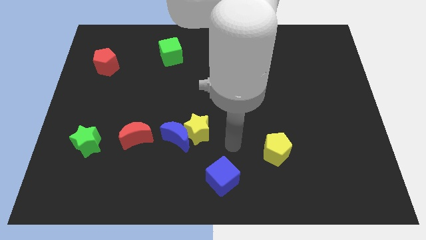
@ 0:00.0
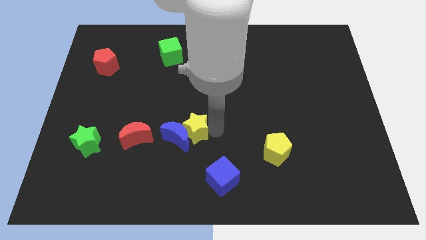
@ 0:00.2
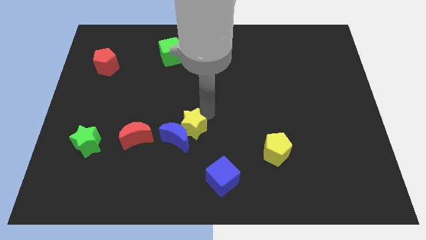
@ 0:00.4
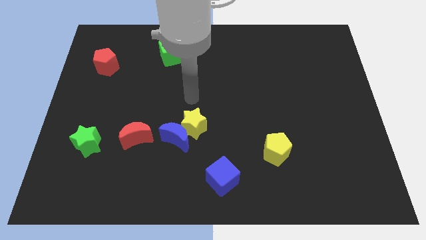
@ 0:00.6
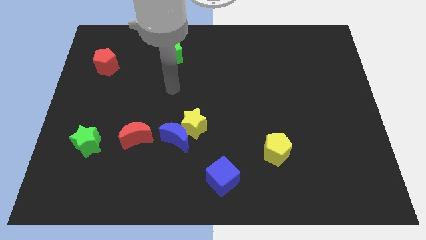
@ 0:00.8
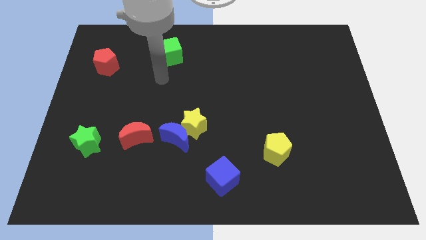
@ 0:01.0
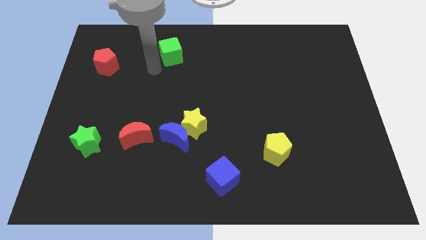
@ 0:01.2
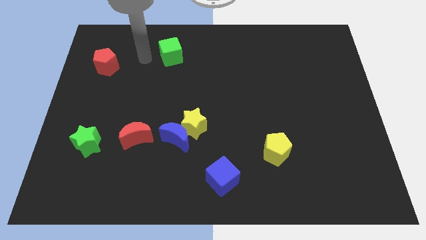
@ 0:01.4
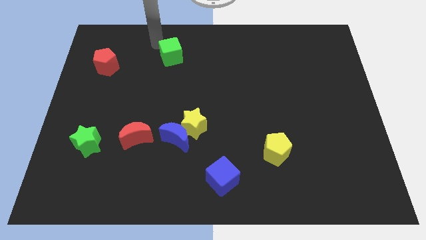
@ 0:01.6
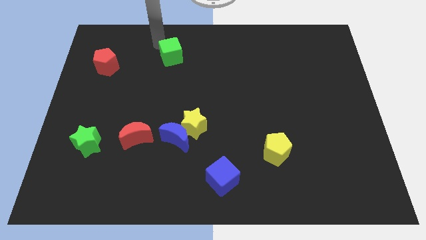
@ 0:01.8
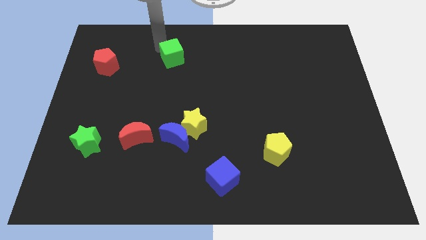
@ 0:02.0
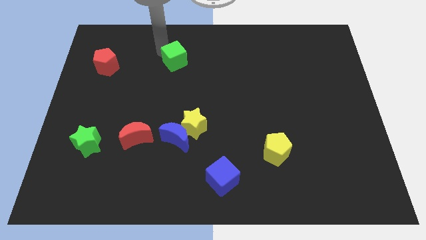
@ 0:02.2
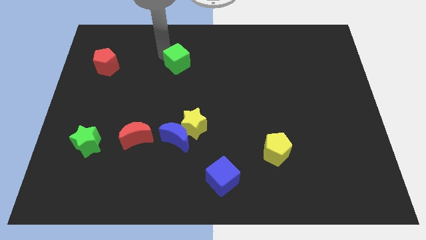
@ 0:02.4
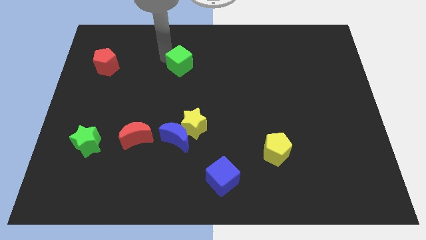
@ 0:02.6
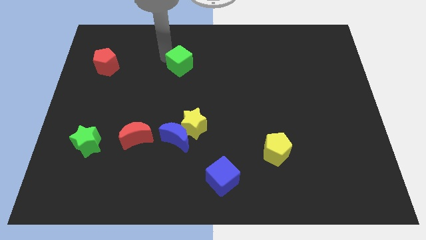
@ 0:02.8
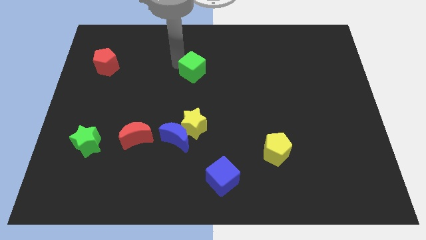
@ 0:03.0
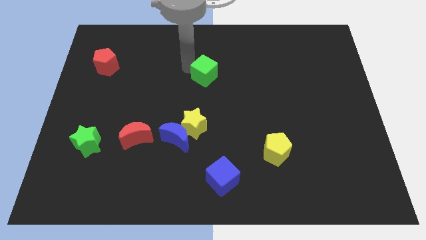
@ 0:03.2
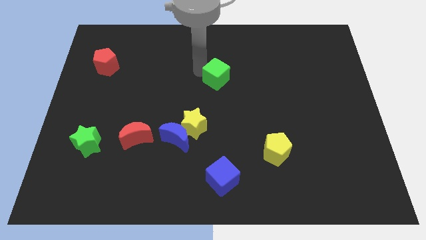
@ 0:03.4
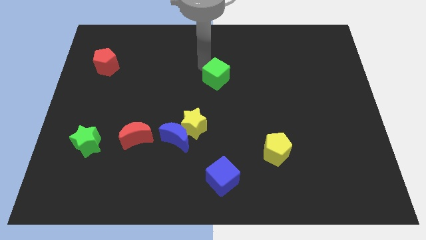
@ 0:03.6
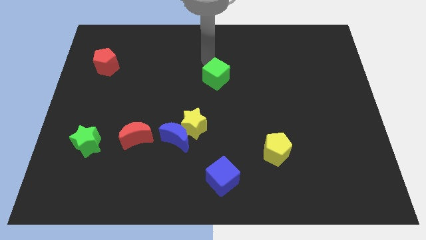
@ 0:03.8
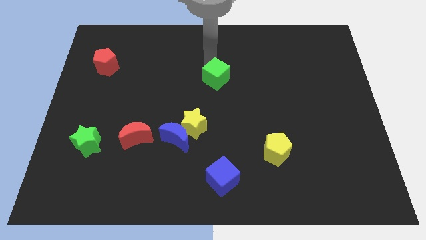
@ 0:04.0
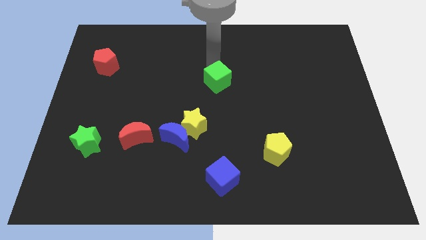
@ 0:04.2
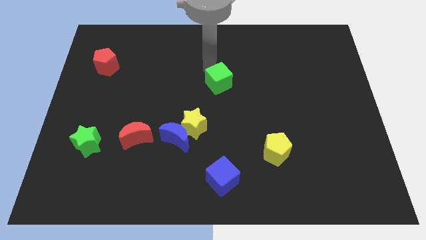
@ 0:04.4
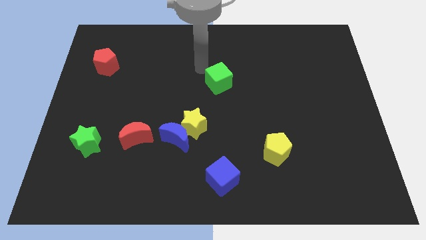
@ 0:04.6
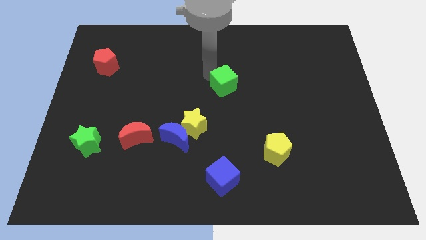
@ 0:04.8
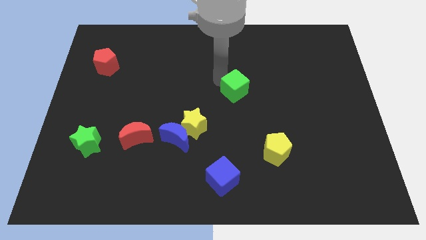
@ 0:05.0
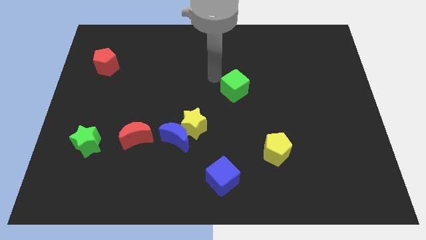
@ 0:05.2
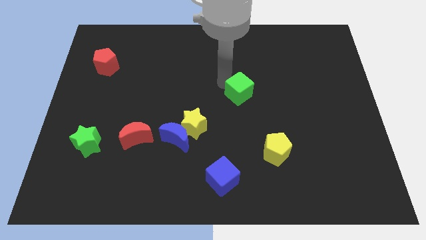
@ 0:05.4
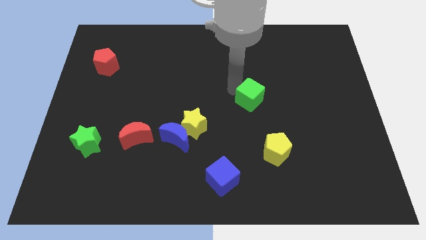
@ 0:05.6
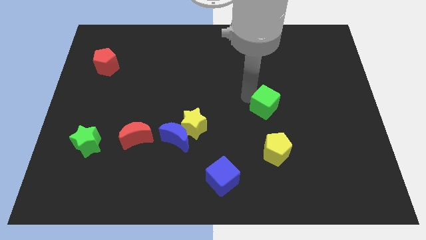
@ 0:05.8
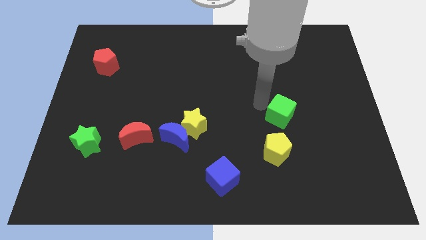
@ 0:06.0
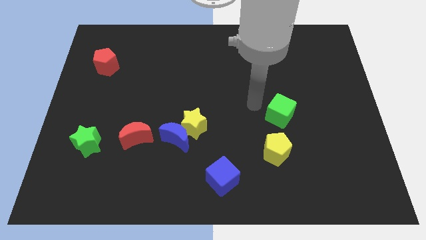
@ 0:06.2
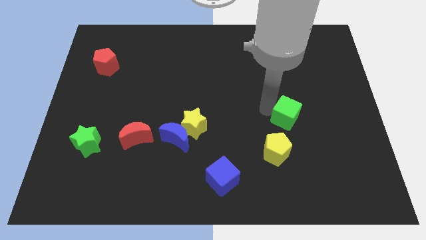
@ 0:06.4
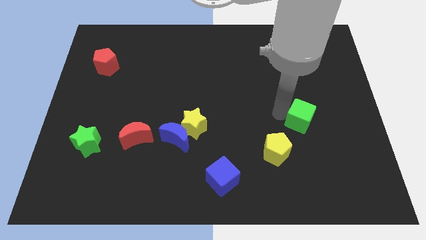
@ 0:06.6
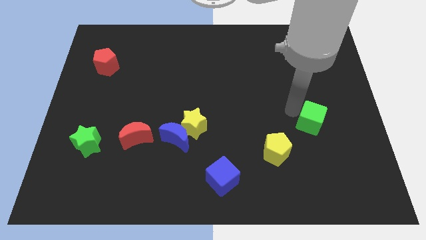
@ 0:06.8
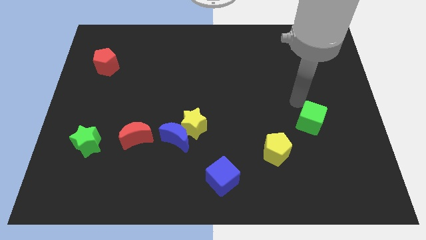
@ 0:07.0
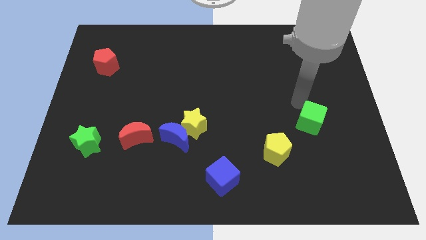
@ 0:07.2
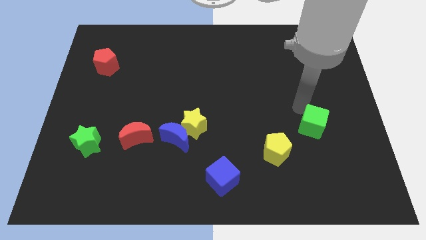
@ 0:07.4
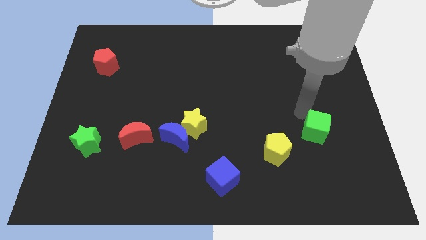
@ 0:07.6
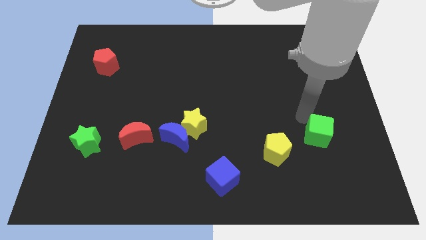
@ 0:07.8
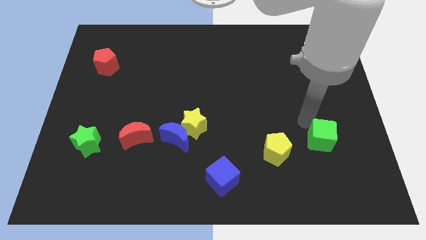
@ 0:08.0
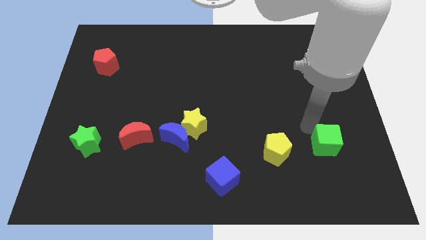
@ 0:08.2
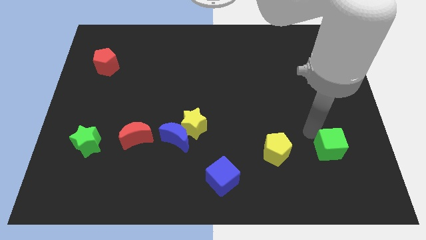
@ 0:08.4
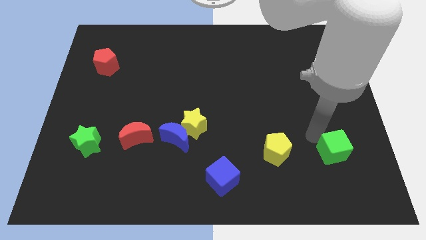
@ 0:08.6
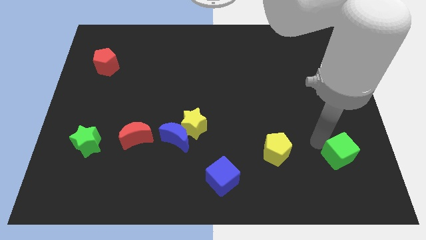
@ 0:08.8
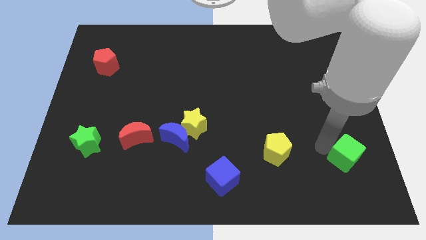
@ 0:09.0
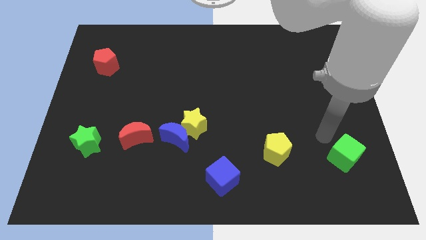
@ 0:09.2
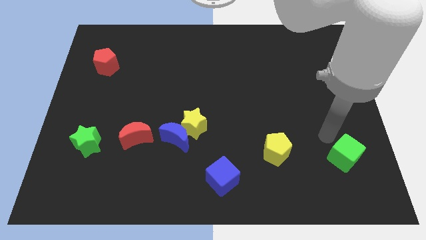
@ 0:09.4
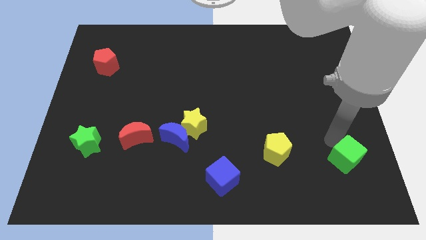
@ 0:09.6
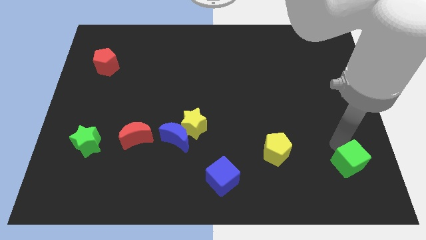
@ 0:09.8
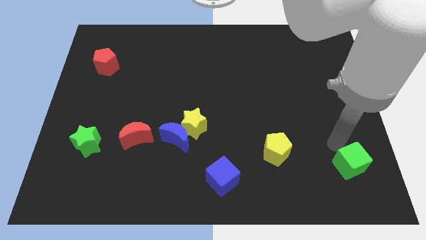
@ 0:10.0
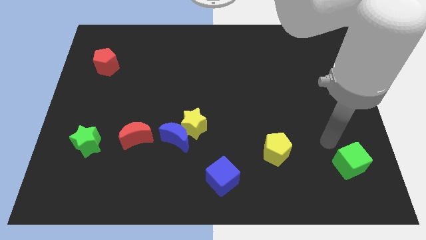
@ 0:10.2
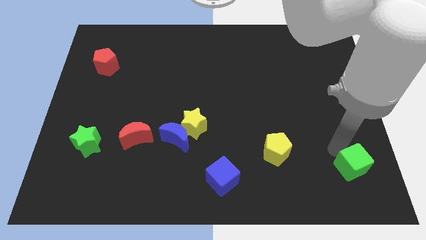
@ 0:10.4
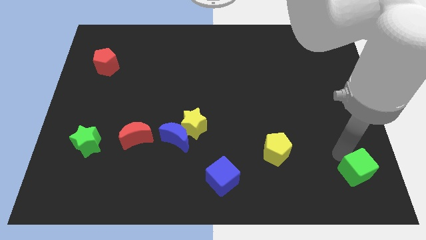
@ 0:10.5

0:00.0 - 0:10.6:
slide the green cube to the lower right corner

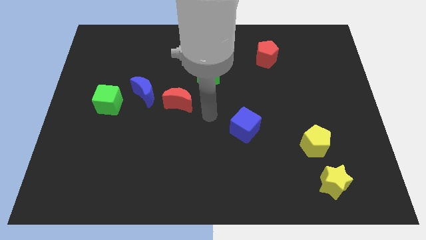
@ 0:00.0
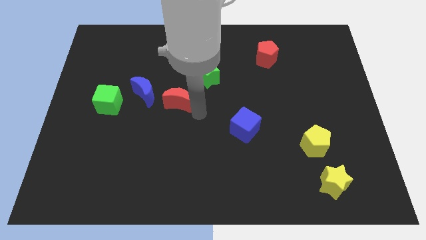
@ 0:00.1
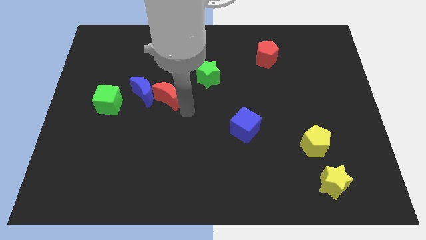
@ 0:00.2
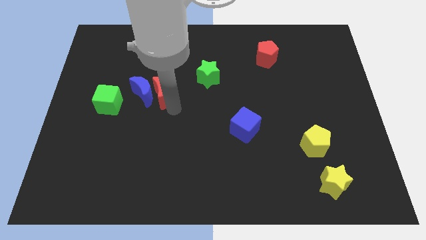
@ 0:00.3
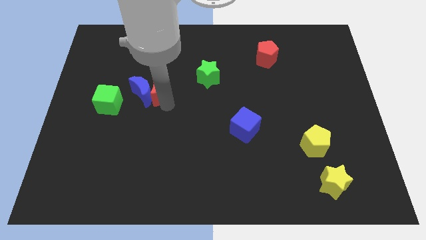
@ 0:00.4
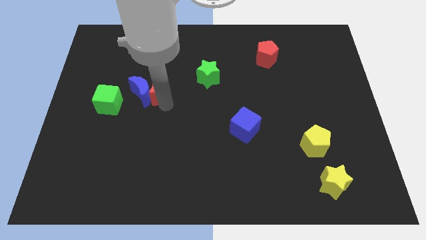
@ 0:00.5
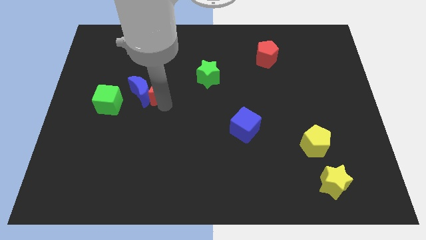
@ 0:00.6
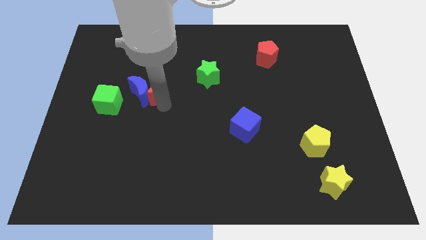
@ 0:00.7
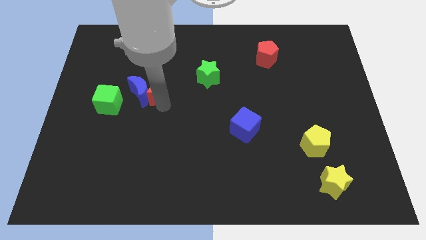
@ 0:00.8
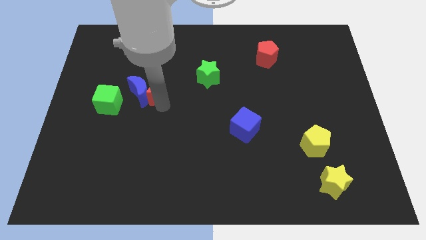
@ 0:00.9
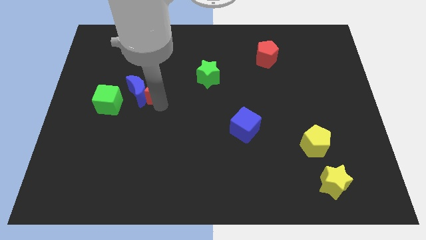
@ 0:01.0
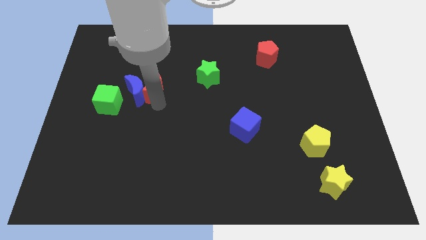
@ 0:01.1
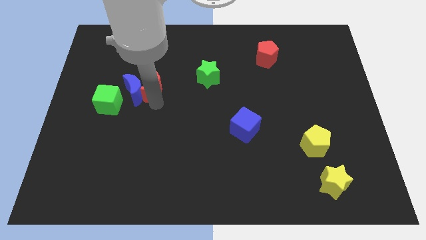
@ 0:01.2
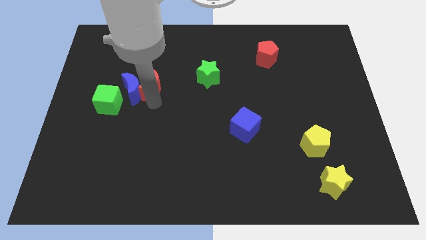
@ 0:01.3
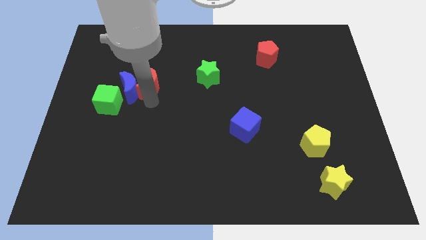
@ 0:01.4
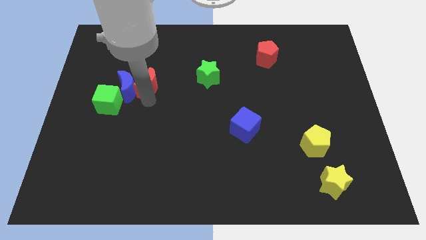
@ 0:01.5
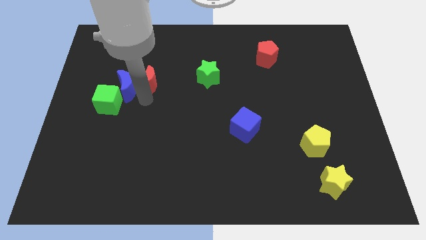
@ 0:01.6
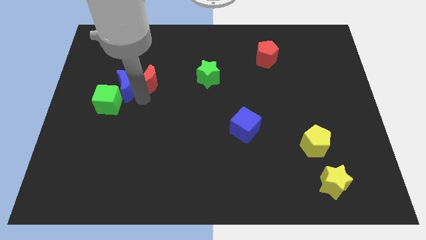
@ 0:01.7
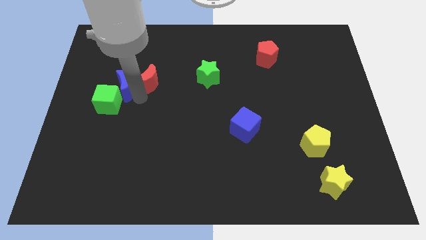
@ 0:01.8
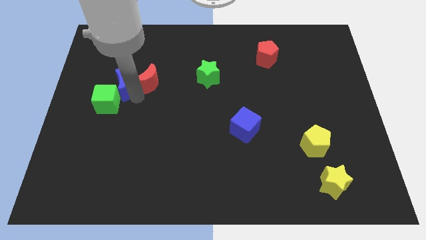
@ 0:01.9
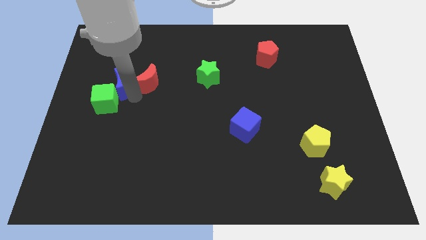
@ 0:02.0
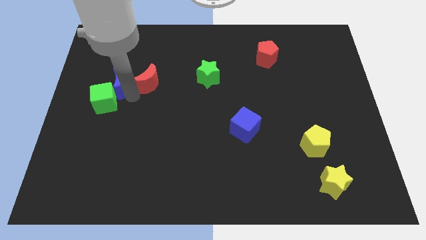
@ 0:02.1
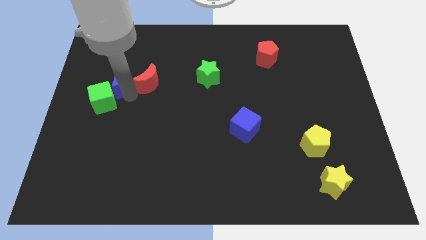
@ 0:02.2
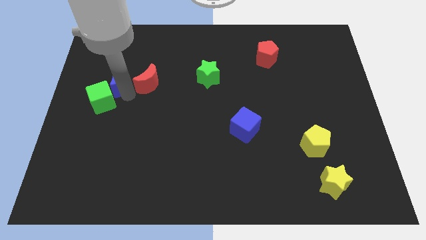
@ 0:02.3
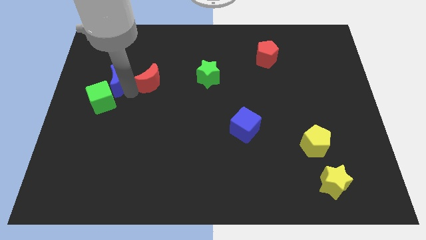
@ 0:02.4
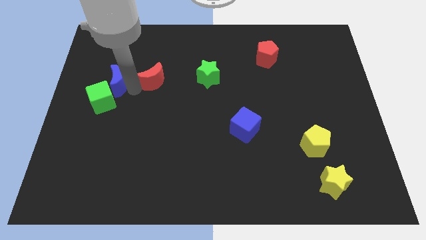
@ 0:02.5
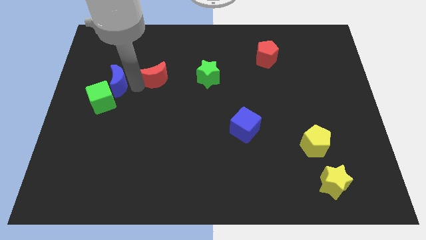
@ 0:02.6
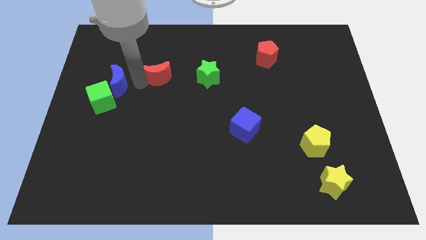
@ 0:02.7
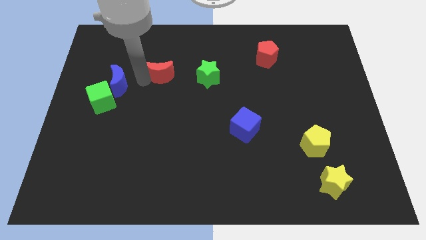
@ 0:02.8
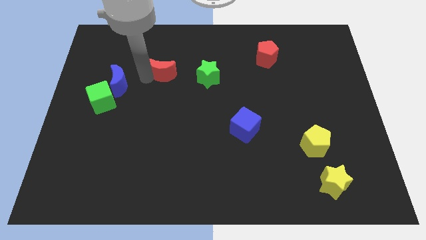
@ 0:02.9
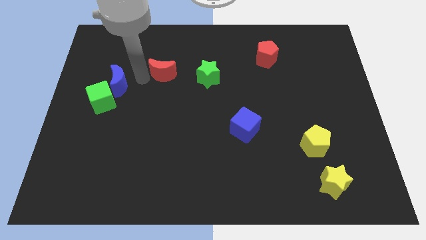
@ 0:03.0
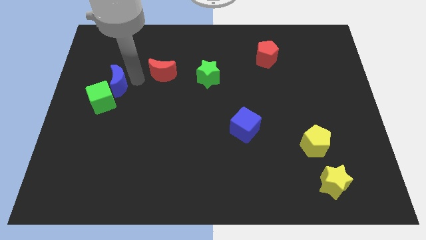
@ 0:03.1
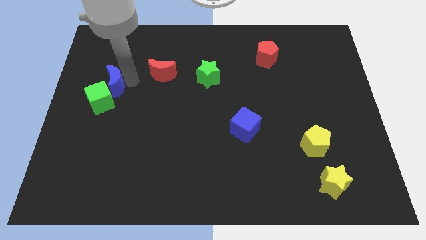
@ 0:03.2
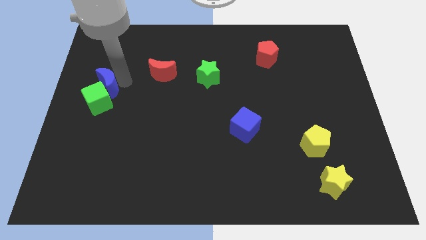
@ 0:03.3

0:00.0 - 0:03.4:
push the blue moon to the left side
